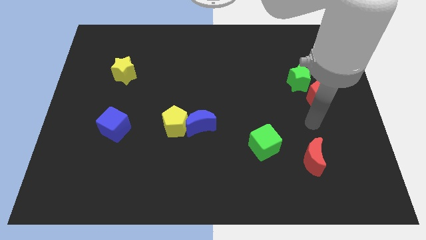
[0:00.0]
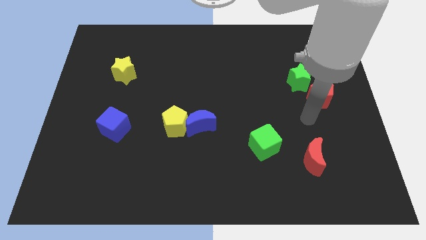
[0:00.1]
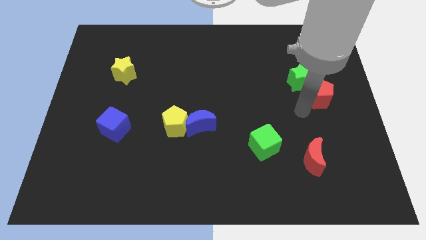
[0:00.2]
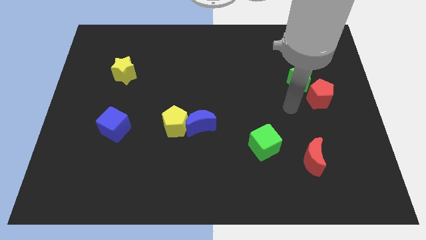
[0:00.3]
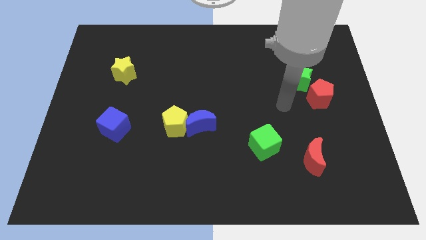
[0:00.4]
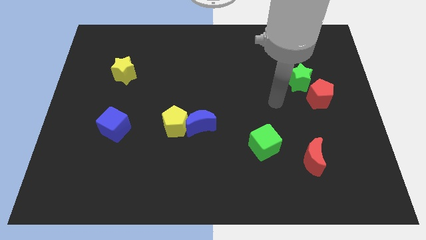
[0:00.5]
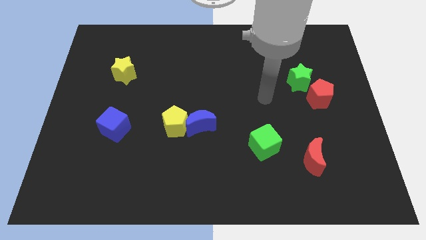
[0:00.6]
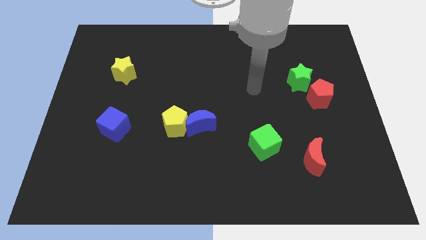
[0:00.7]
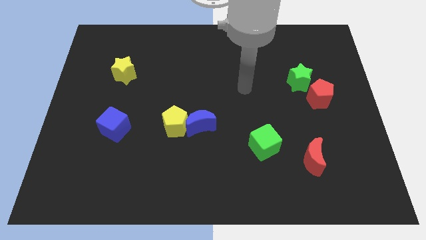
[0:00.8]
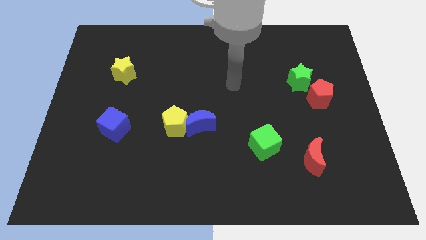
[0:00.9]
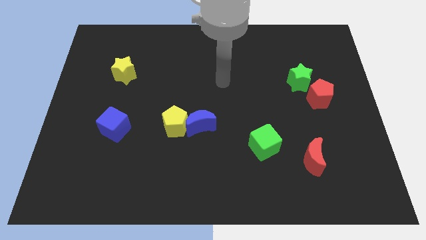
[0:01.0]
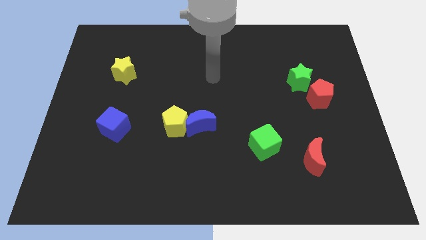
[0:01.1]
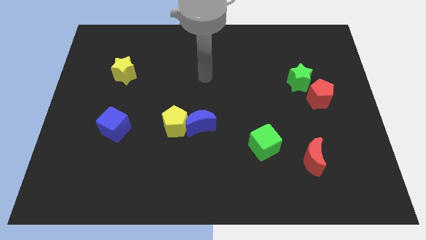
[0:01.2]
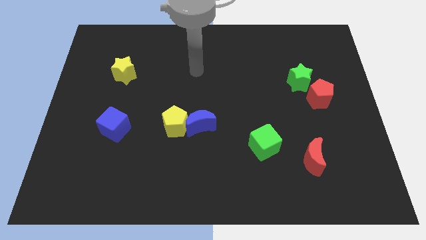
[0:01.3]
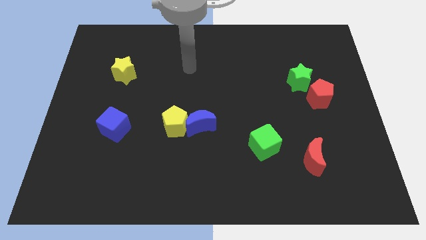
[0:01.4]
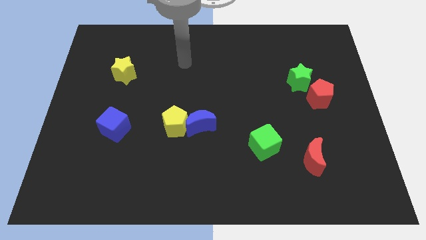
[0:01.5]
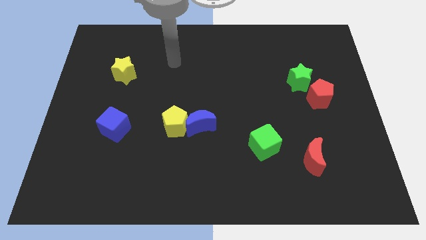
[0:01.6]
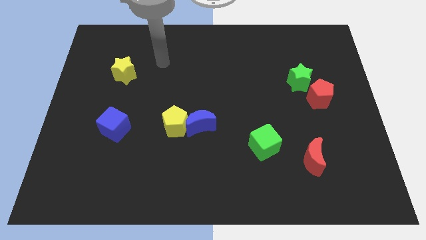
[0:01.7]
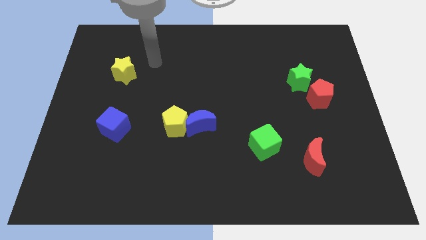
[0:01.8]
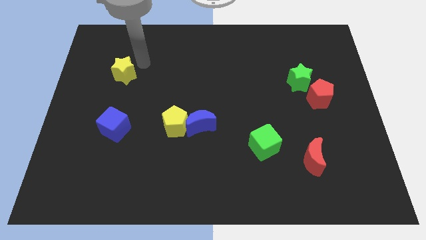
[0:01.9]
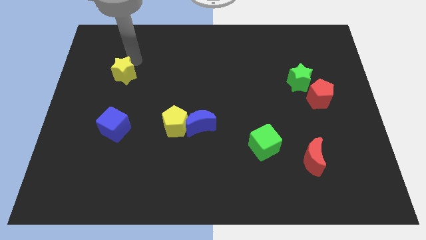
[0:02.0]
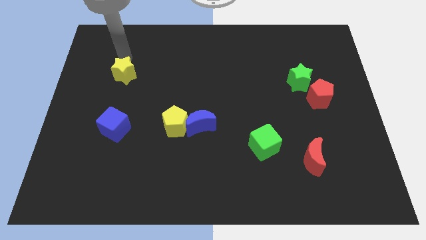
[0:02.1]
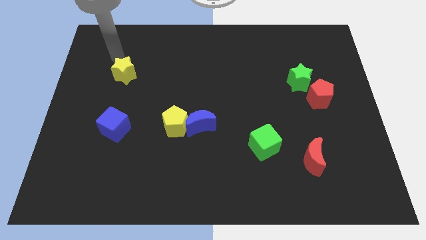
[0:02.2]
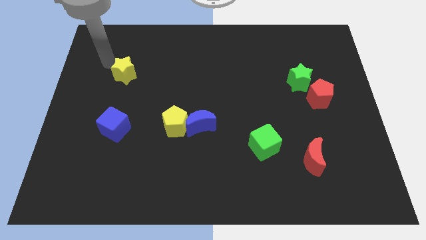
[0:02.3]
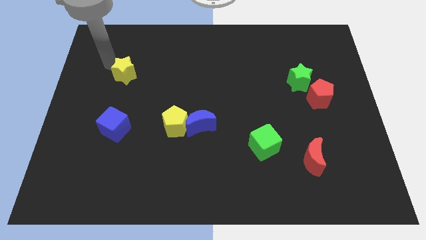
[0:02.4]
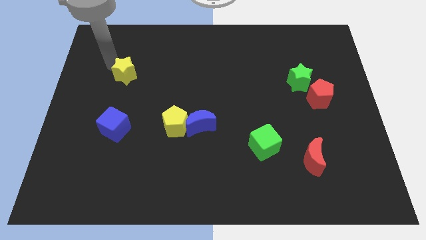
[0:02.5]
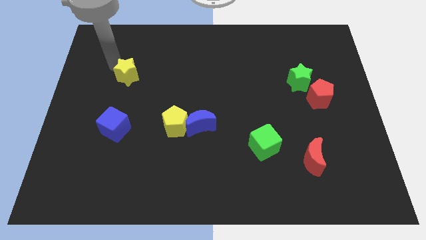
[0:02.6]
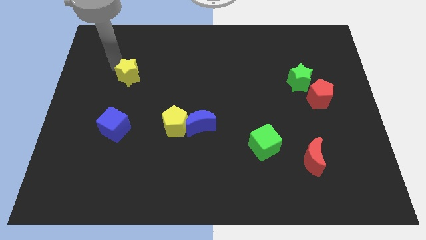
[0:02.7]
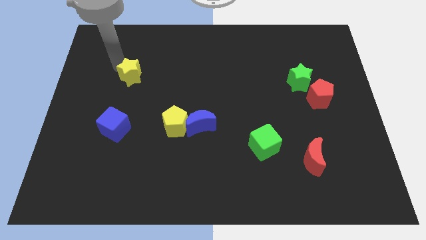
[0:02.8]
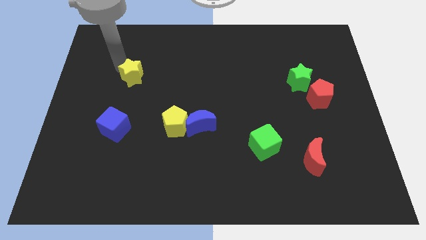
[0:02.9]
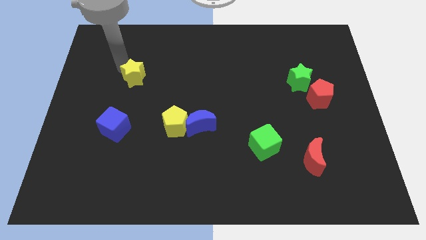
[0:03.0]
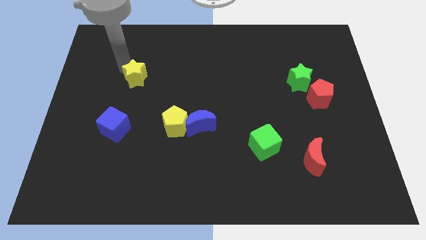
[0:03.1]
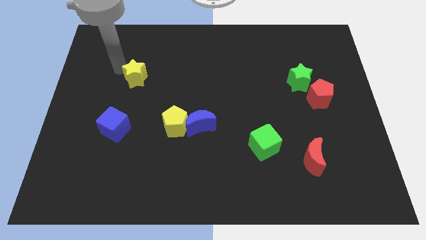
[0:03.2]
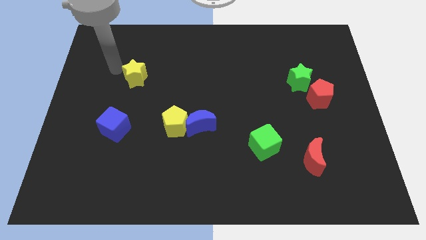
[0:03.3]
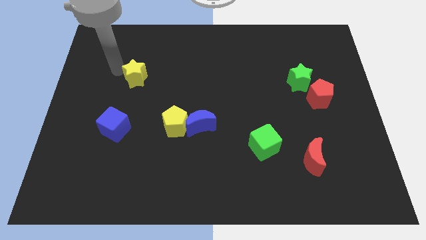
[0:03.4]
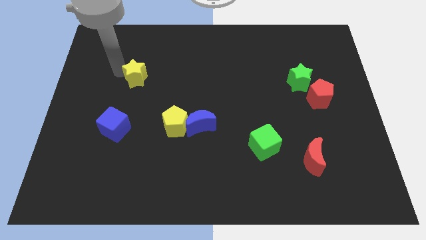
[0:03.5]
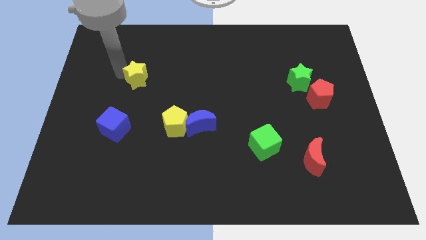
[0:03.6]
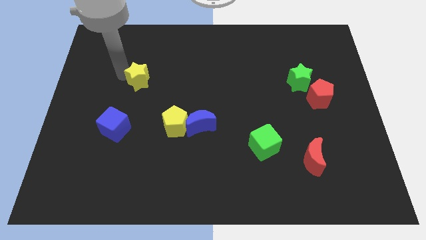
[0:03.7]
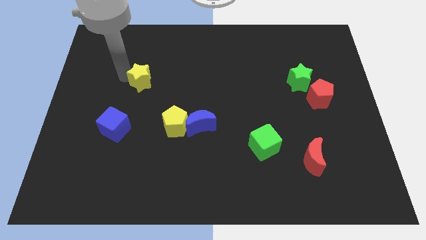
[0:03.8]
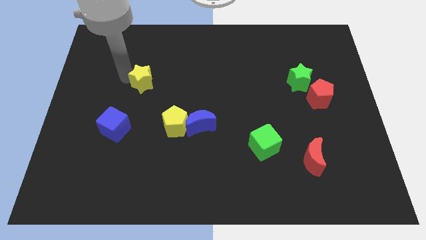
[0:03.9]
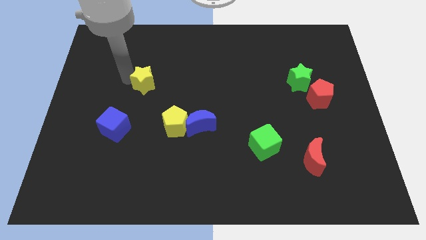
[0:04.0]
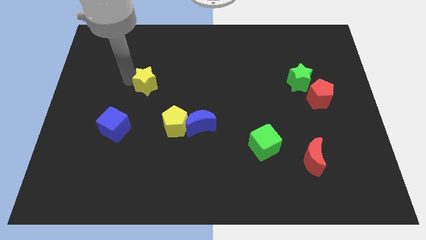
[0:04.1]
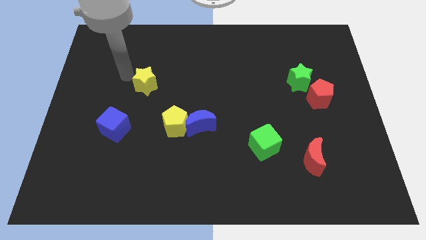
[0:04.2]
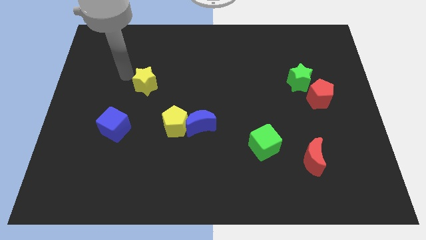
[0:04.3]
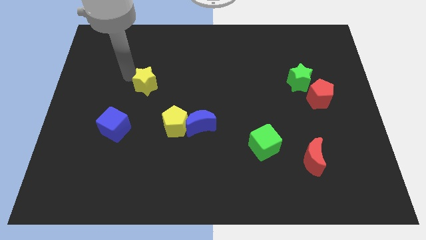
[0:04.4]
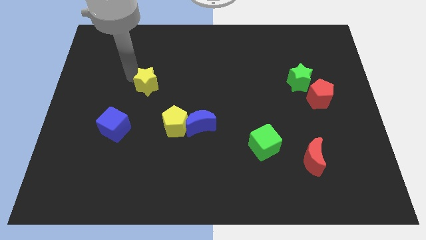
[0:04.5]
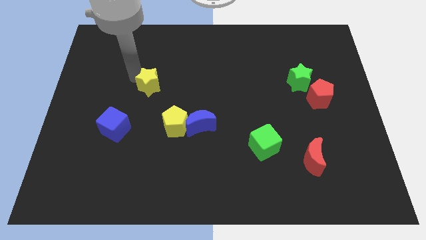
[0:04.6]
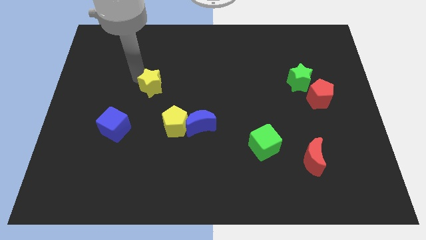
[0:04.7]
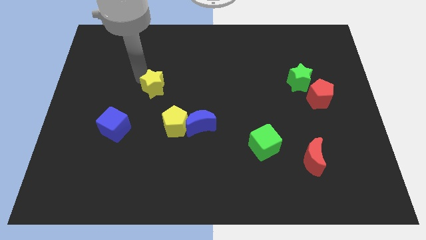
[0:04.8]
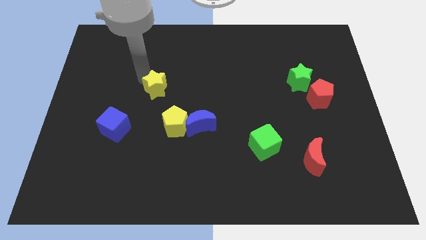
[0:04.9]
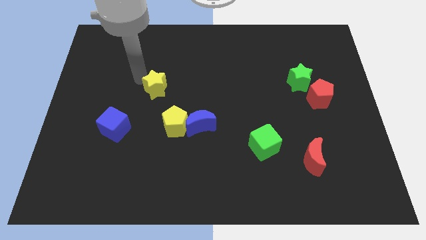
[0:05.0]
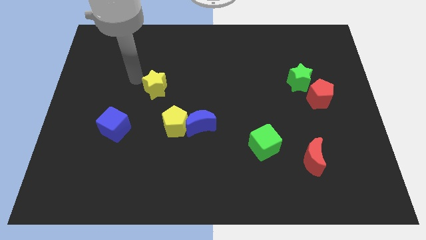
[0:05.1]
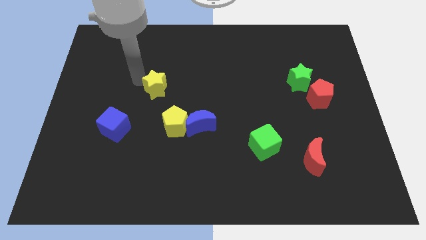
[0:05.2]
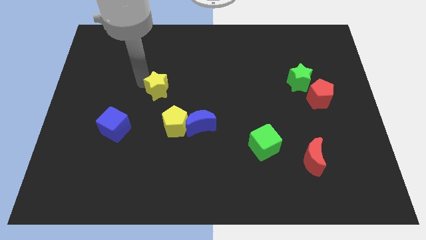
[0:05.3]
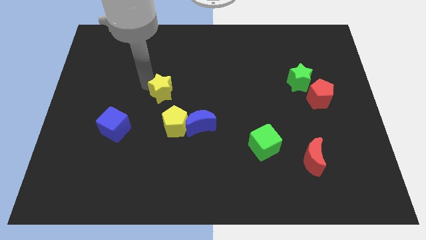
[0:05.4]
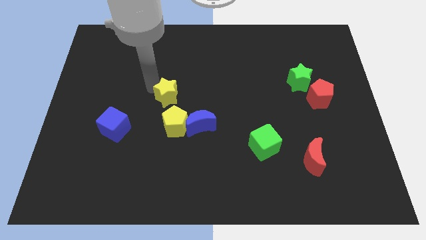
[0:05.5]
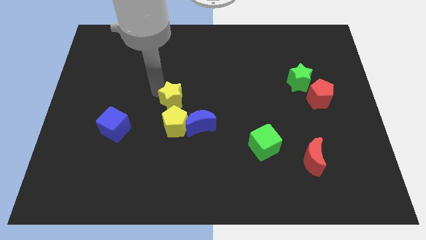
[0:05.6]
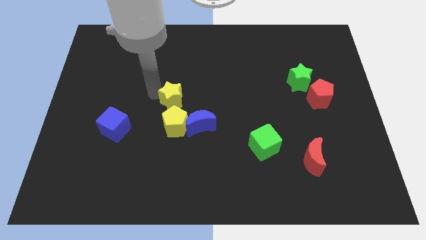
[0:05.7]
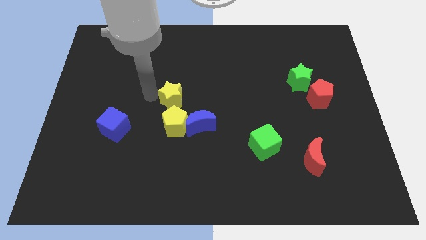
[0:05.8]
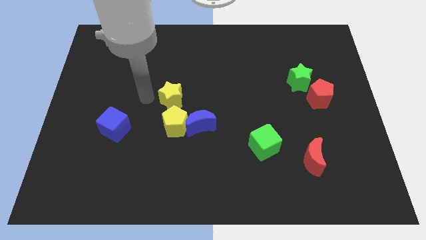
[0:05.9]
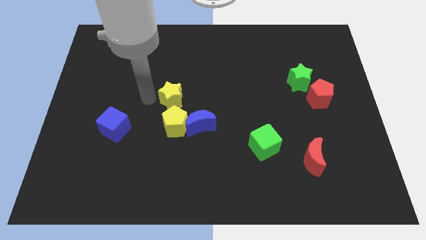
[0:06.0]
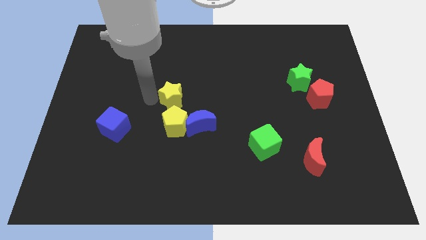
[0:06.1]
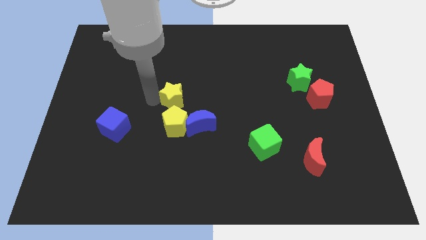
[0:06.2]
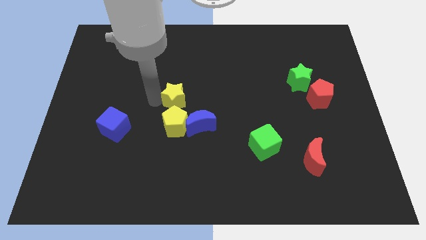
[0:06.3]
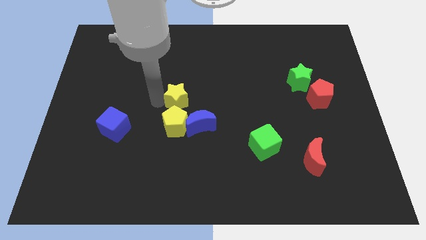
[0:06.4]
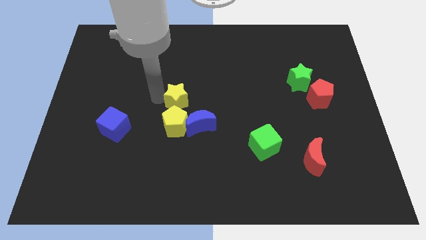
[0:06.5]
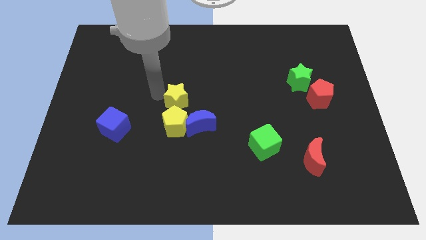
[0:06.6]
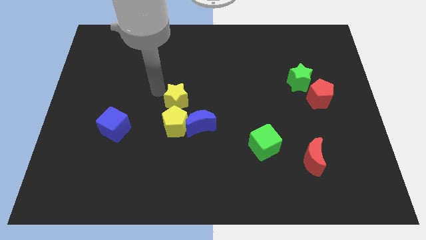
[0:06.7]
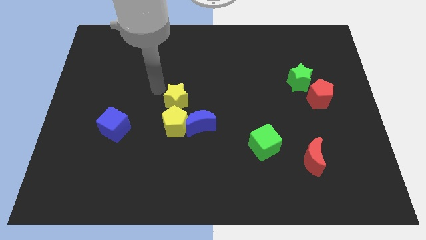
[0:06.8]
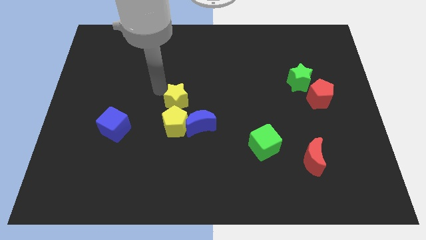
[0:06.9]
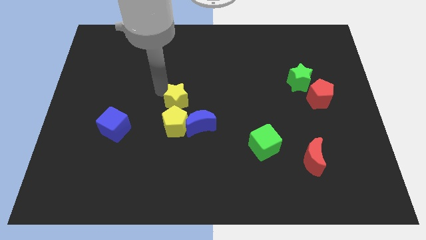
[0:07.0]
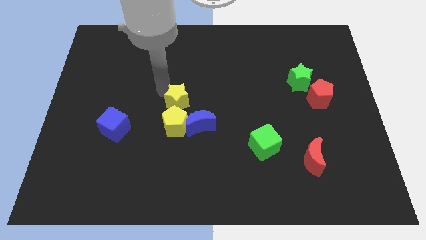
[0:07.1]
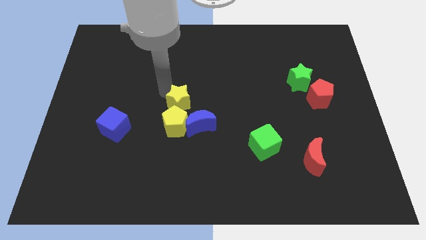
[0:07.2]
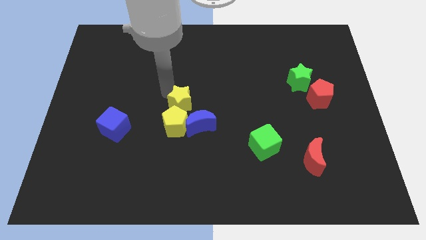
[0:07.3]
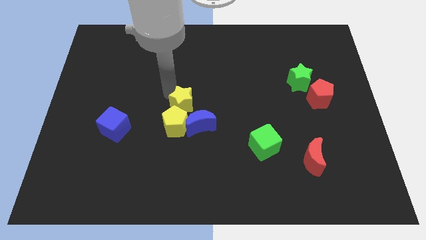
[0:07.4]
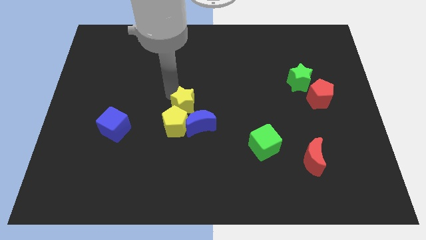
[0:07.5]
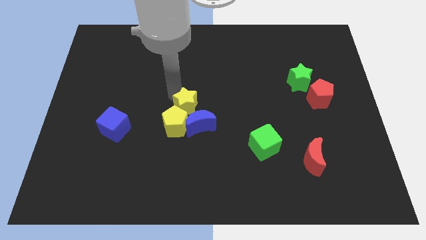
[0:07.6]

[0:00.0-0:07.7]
move the yellow star towards the blue moon
